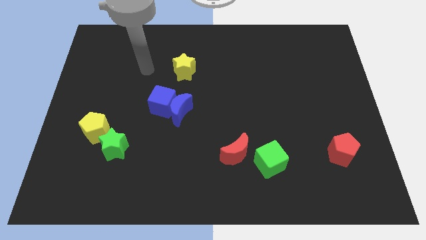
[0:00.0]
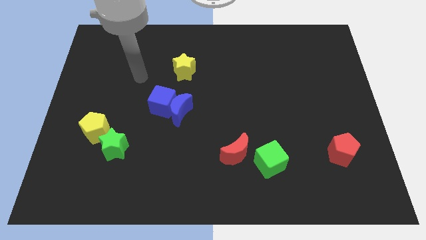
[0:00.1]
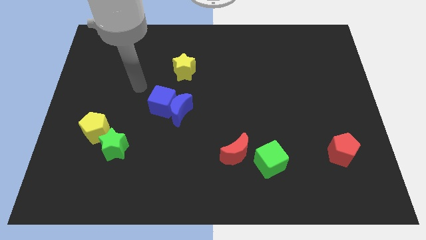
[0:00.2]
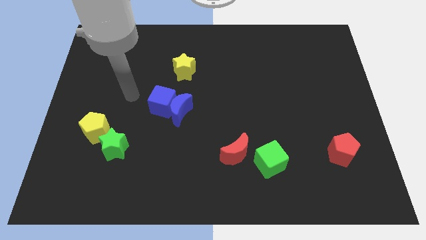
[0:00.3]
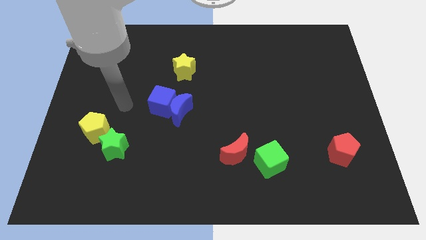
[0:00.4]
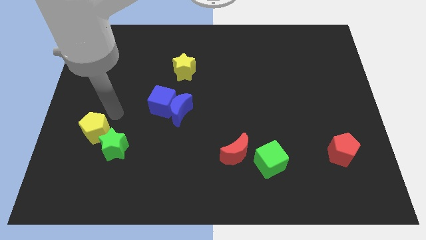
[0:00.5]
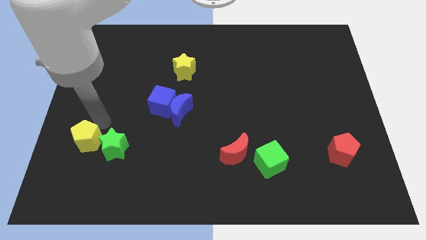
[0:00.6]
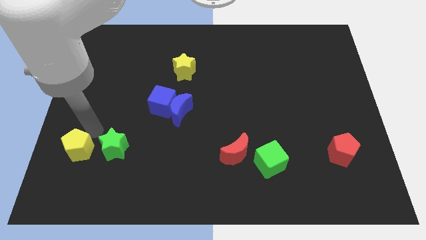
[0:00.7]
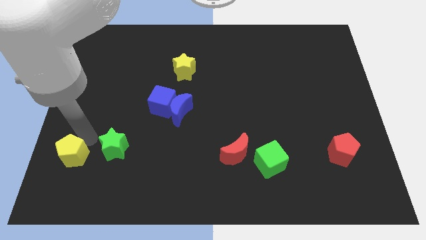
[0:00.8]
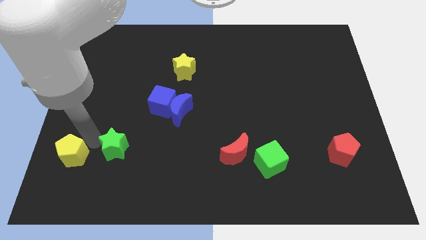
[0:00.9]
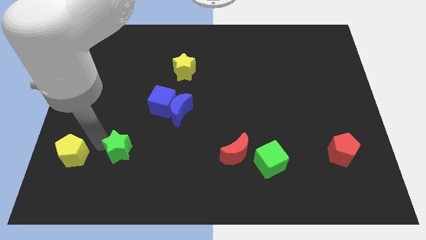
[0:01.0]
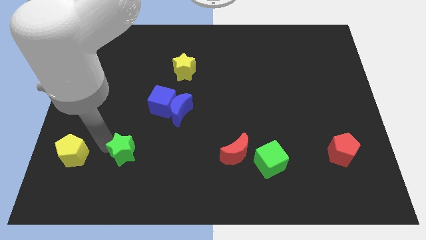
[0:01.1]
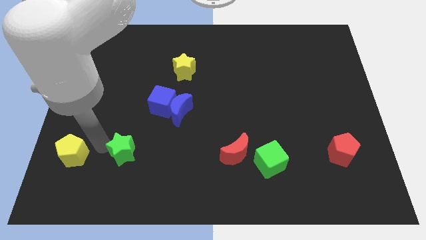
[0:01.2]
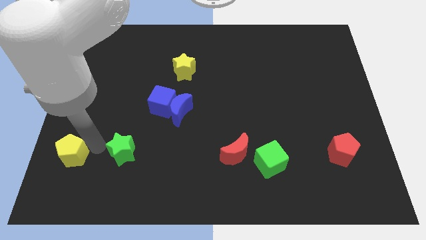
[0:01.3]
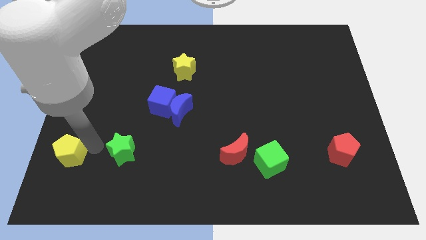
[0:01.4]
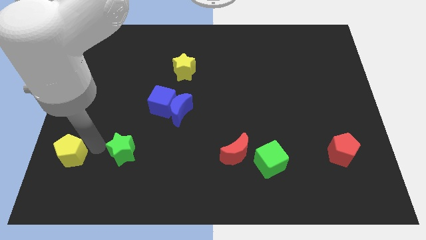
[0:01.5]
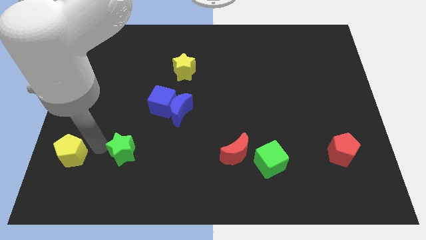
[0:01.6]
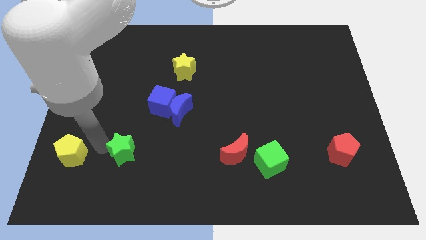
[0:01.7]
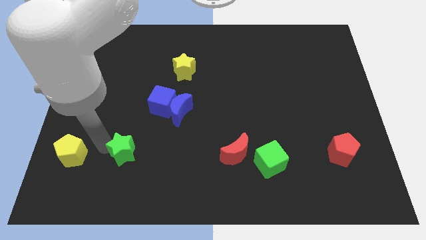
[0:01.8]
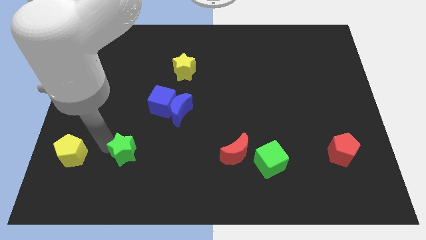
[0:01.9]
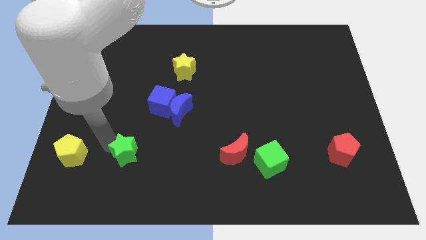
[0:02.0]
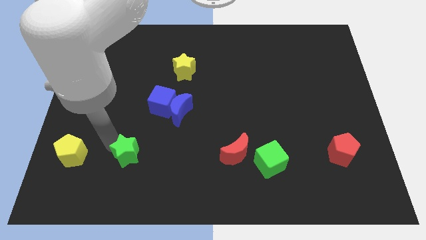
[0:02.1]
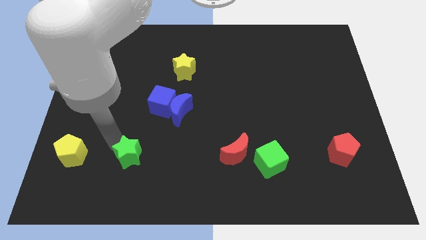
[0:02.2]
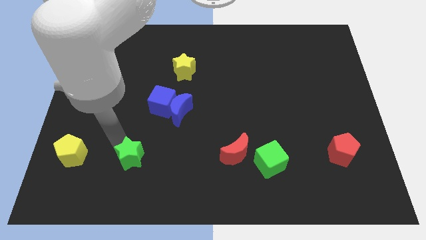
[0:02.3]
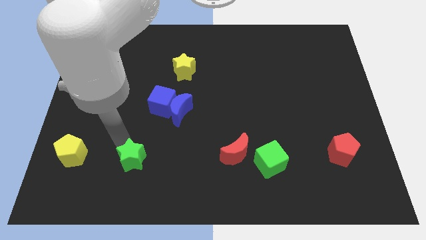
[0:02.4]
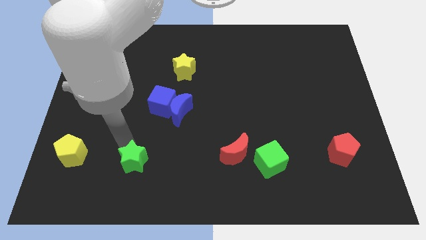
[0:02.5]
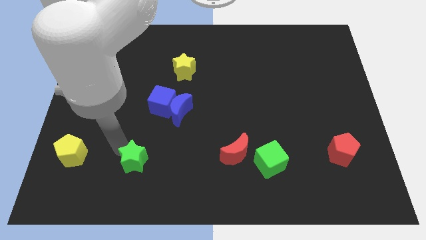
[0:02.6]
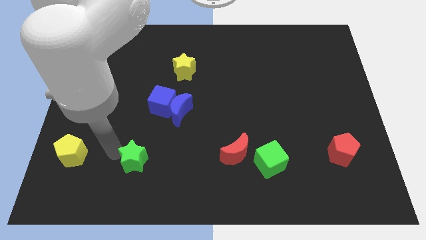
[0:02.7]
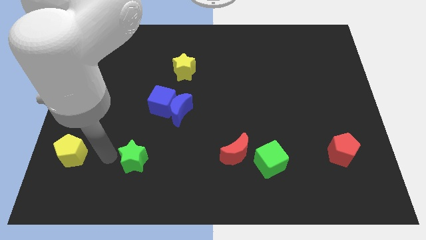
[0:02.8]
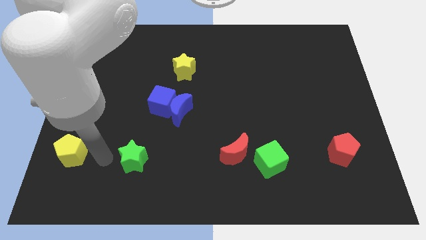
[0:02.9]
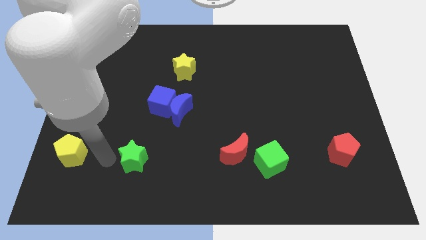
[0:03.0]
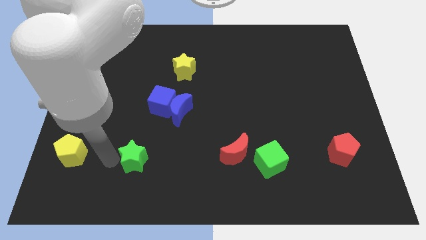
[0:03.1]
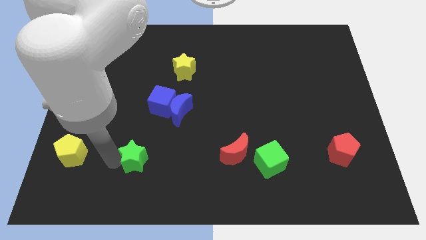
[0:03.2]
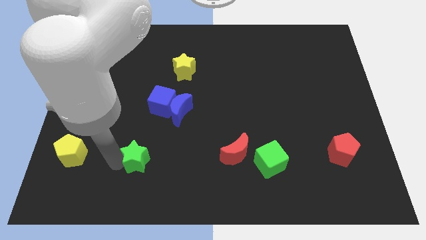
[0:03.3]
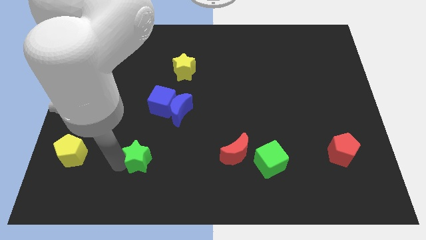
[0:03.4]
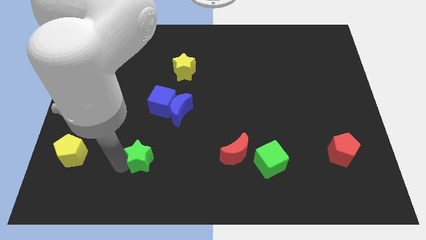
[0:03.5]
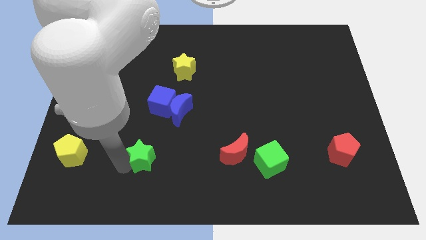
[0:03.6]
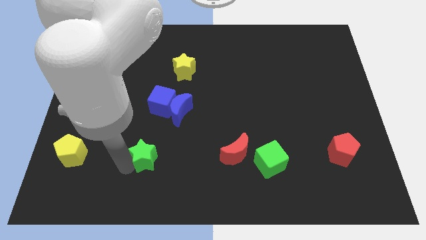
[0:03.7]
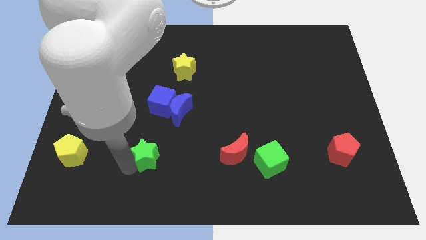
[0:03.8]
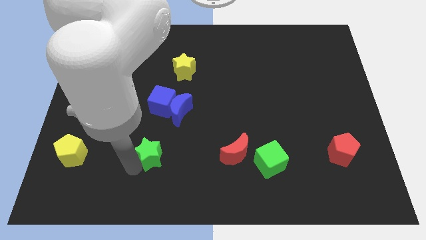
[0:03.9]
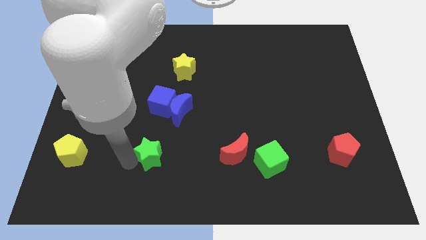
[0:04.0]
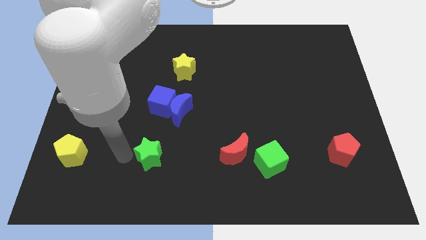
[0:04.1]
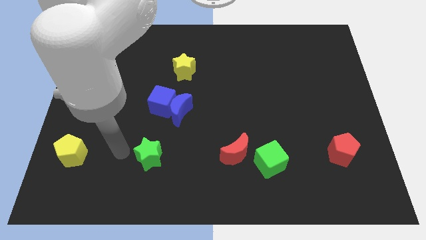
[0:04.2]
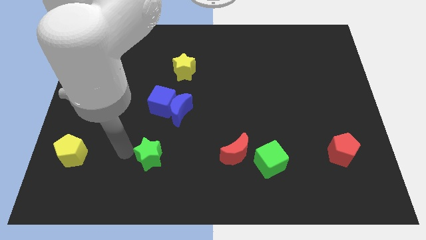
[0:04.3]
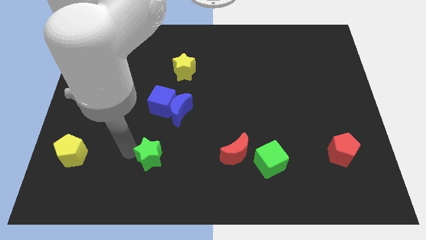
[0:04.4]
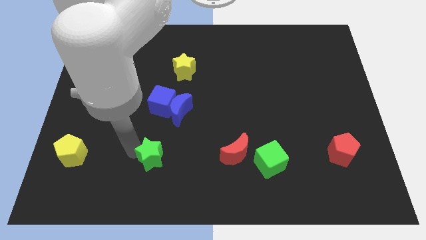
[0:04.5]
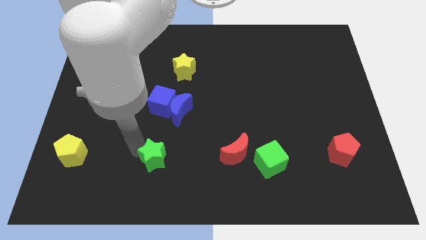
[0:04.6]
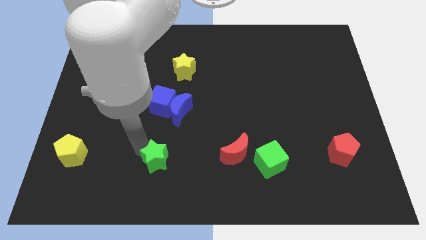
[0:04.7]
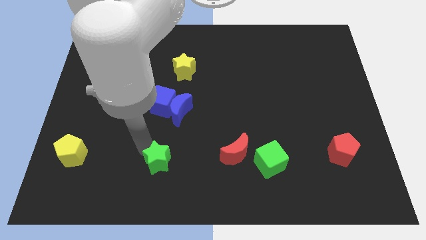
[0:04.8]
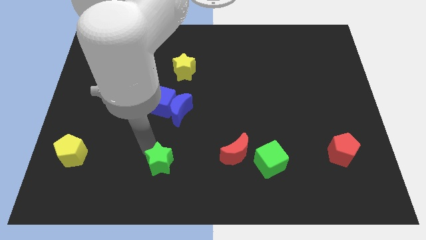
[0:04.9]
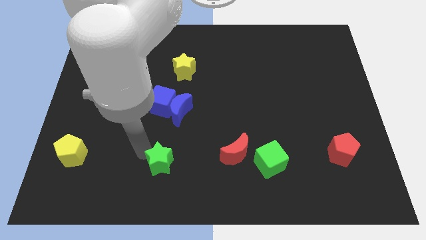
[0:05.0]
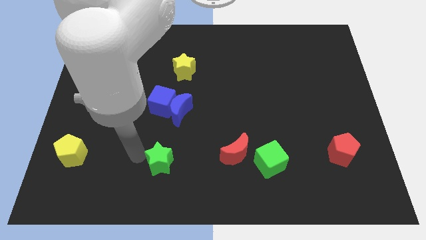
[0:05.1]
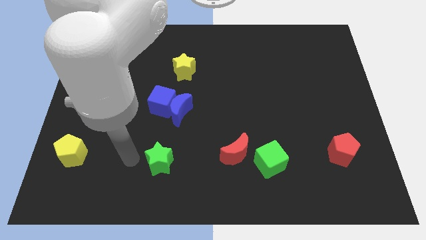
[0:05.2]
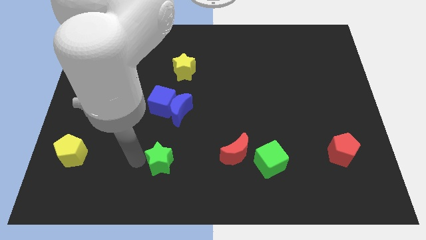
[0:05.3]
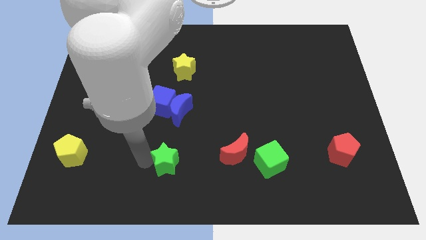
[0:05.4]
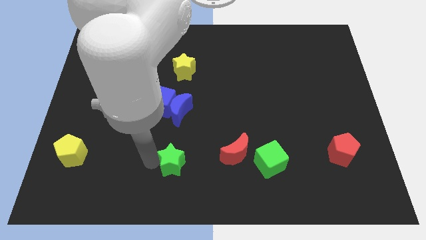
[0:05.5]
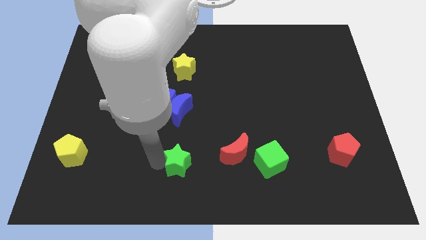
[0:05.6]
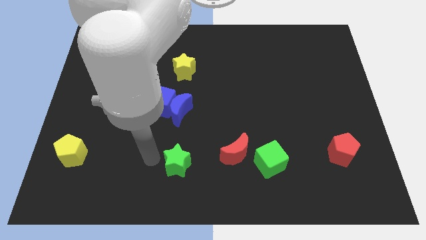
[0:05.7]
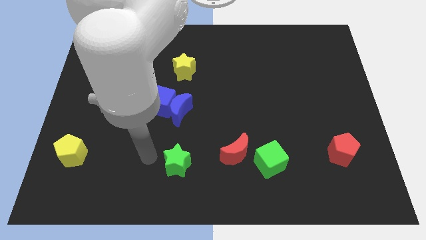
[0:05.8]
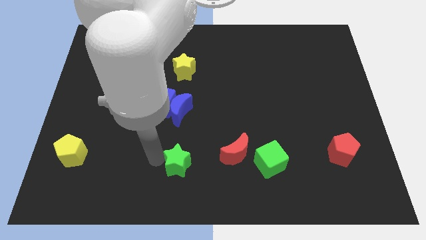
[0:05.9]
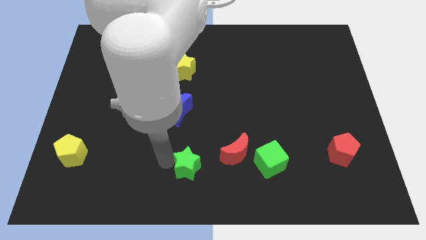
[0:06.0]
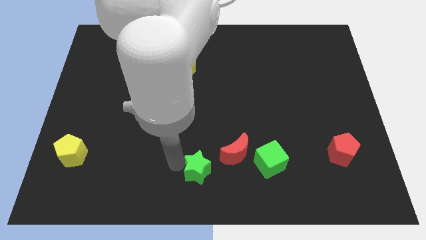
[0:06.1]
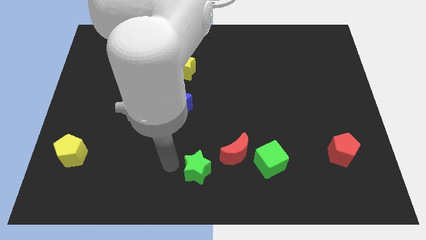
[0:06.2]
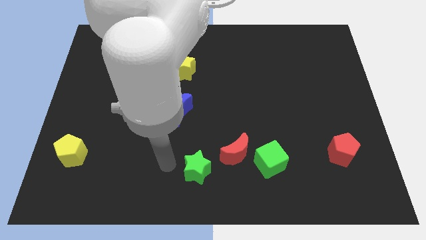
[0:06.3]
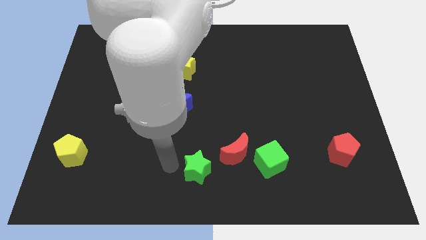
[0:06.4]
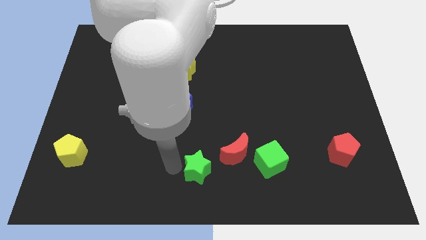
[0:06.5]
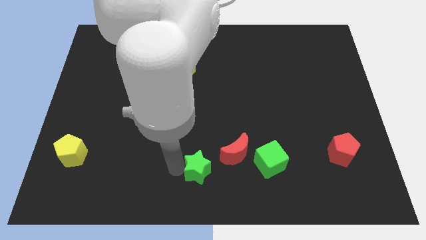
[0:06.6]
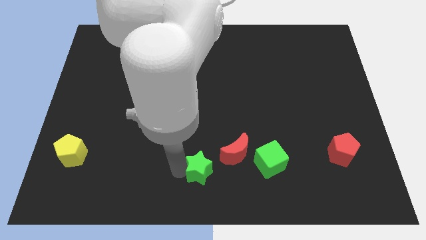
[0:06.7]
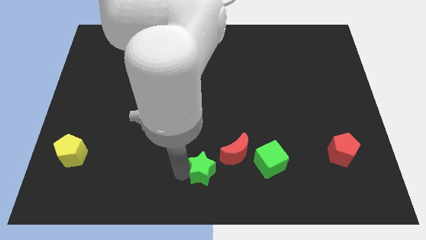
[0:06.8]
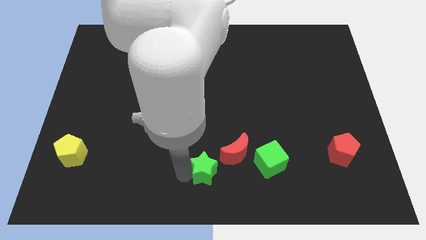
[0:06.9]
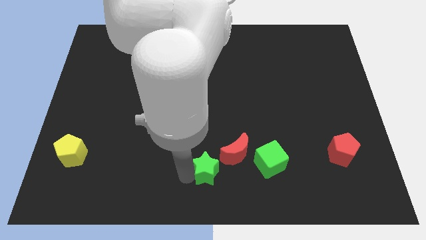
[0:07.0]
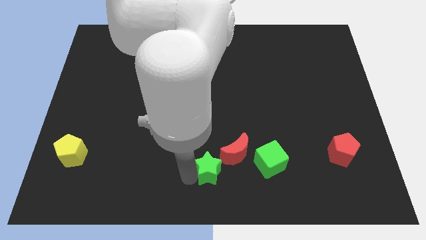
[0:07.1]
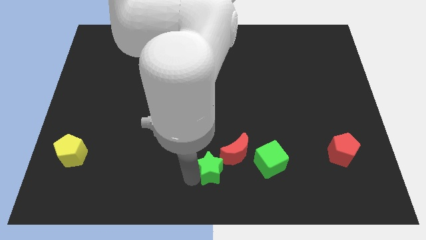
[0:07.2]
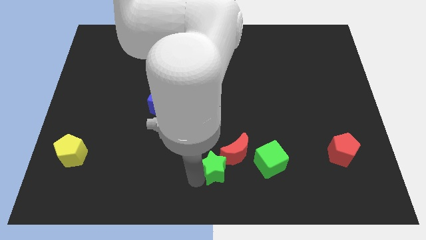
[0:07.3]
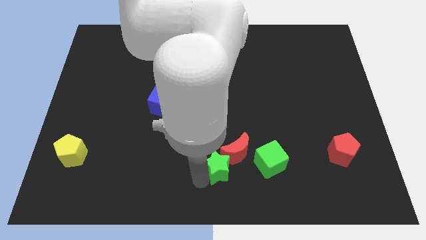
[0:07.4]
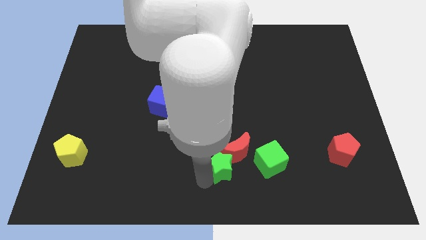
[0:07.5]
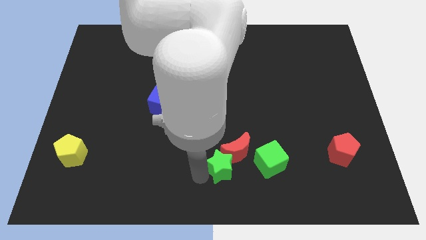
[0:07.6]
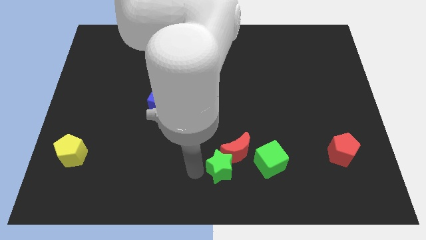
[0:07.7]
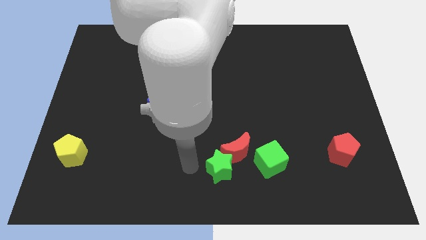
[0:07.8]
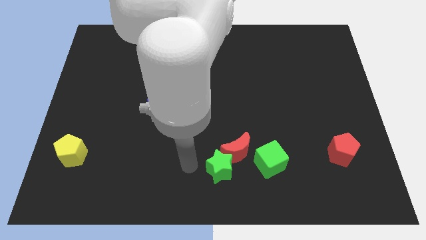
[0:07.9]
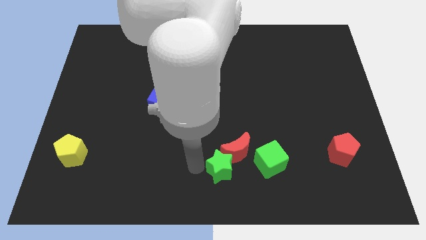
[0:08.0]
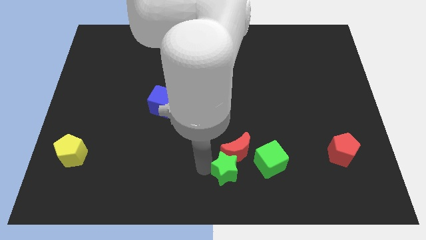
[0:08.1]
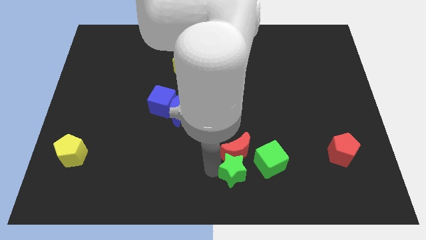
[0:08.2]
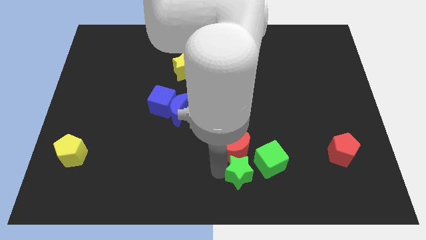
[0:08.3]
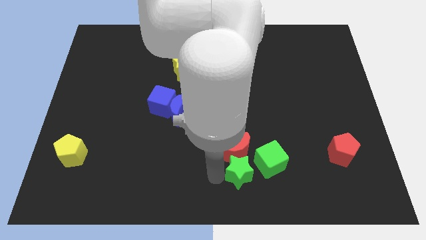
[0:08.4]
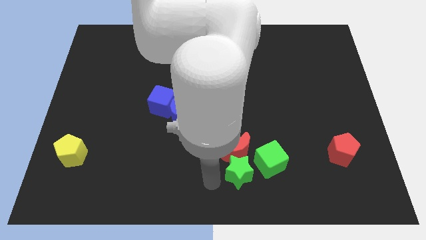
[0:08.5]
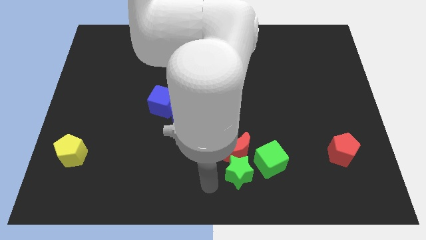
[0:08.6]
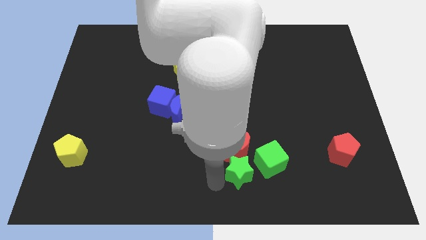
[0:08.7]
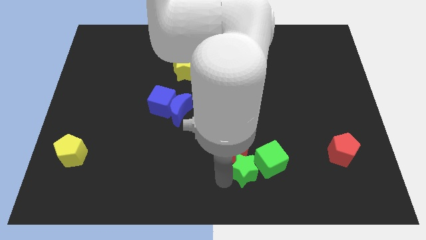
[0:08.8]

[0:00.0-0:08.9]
put the green star to the green cube
